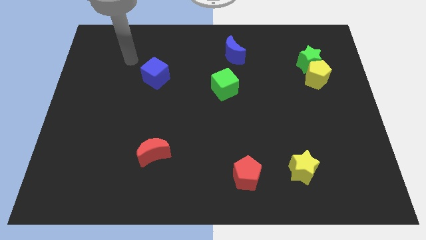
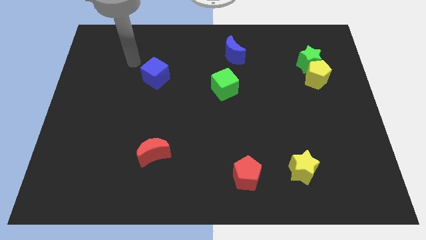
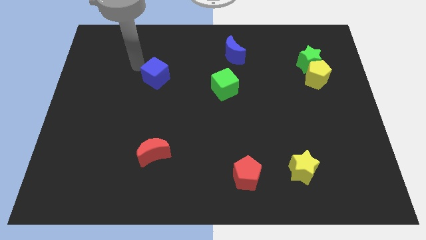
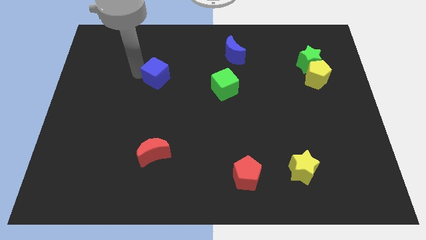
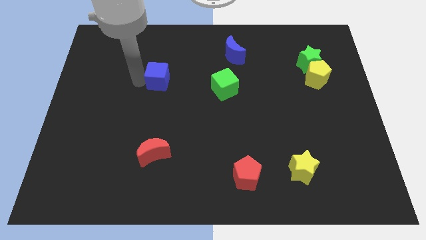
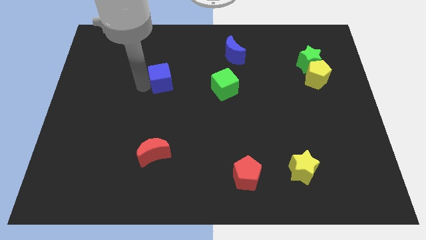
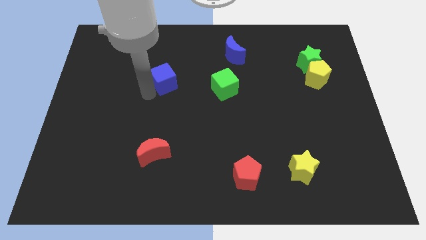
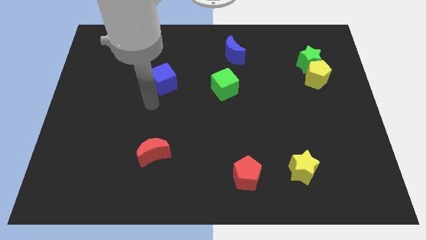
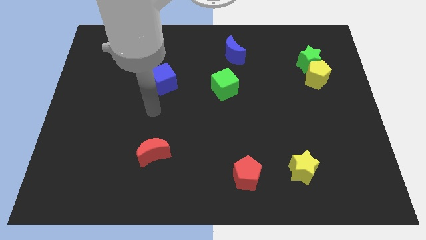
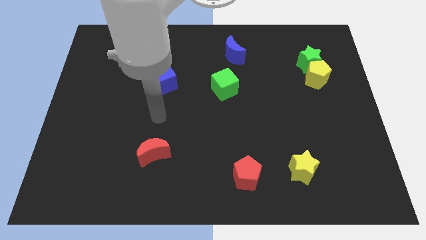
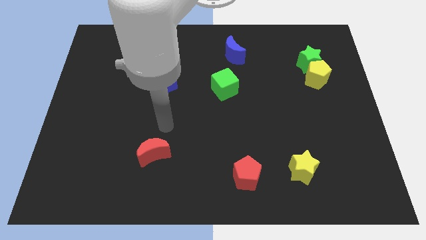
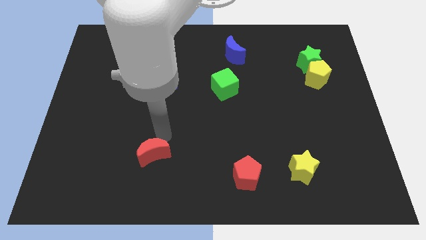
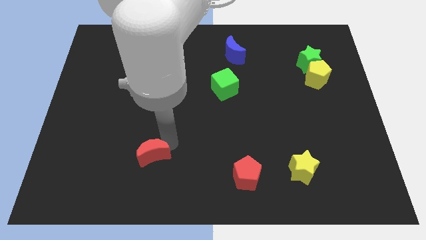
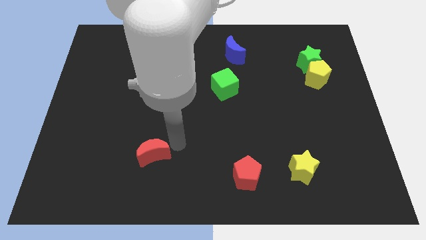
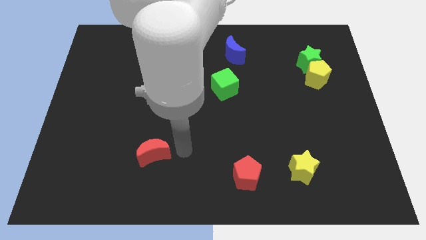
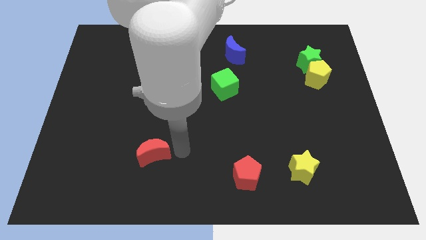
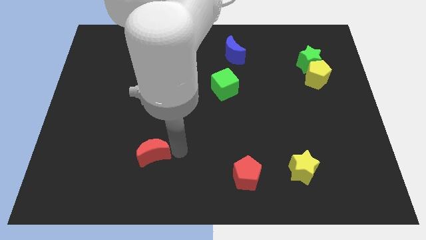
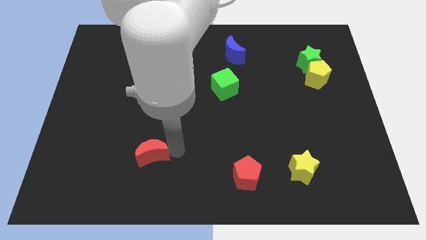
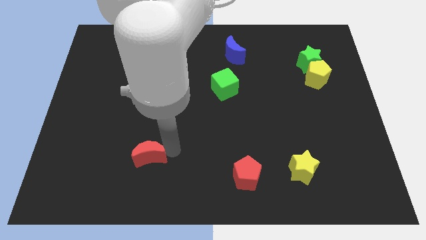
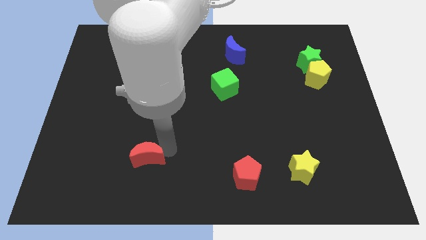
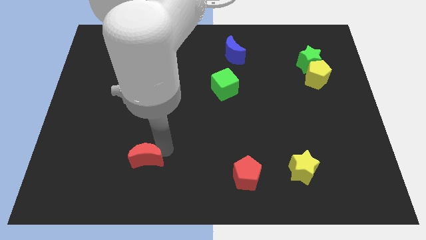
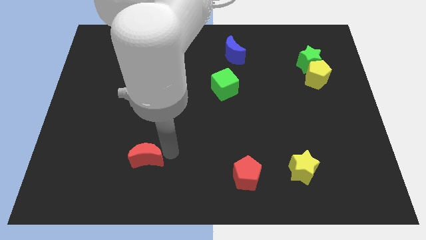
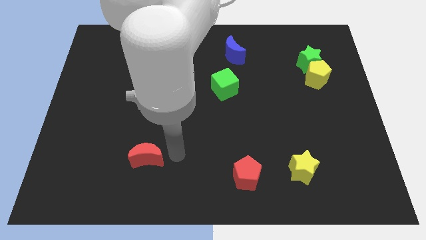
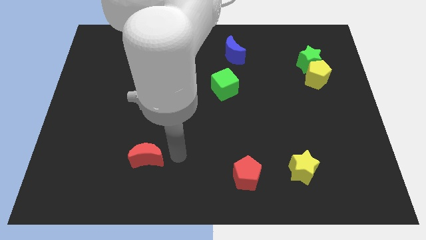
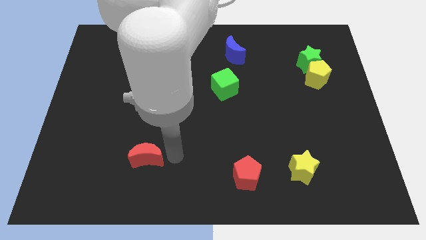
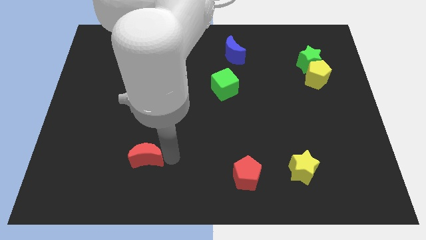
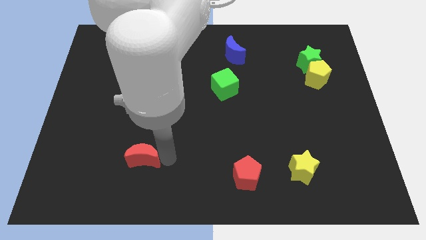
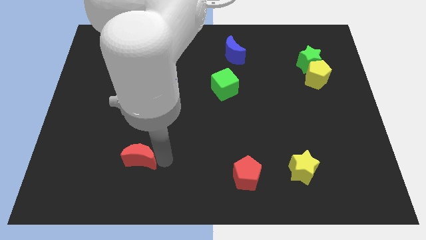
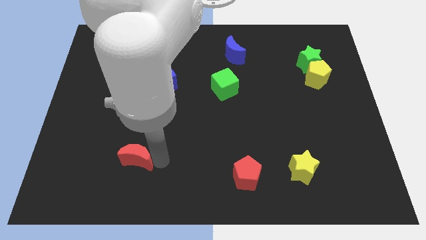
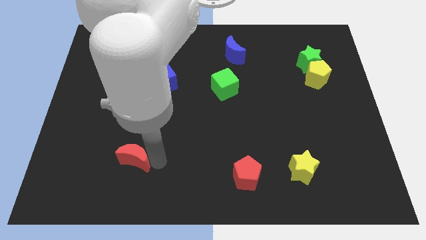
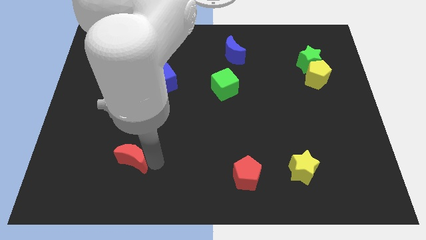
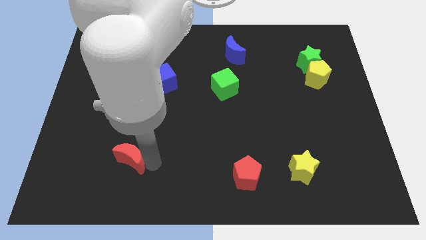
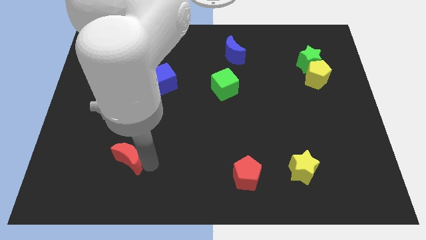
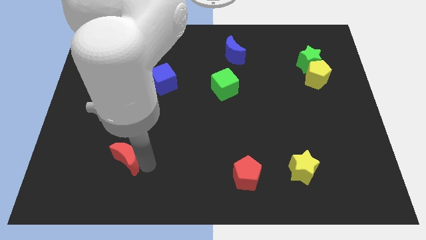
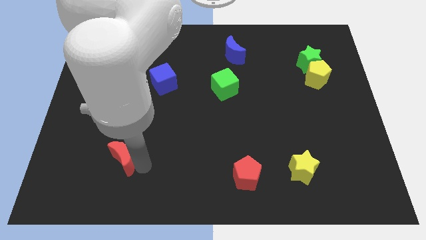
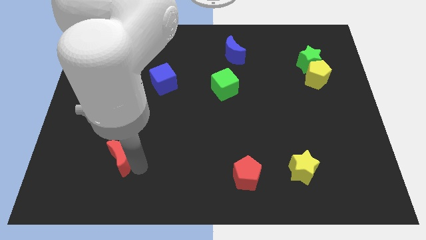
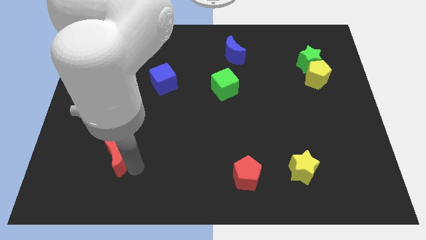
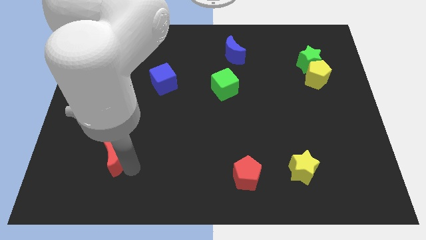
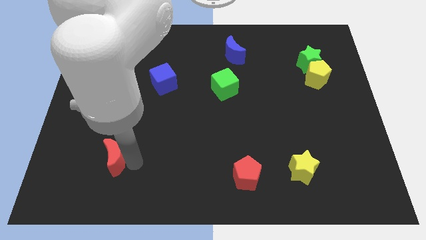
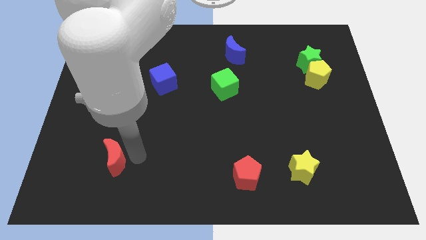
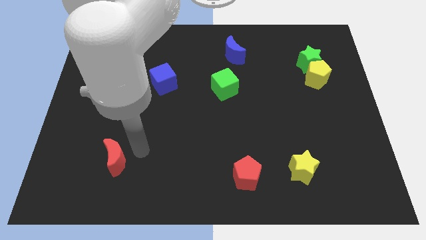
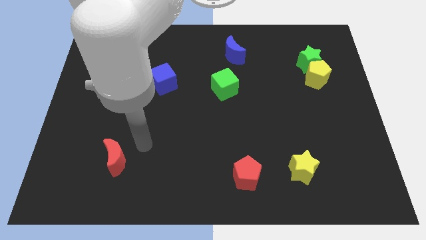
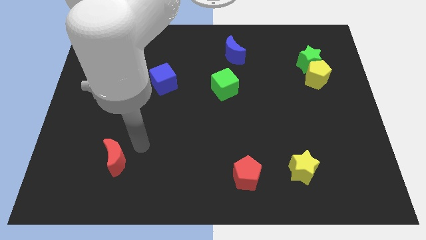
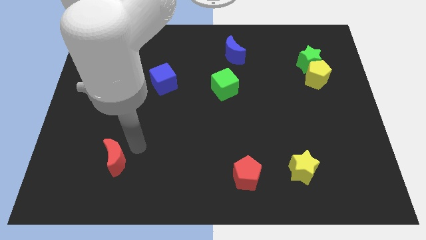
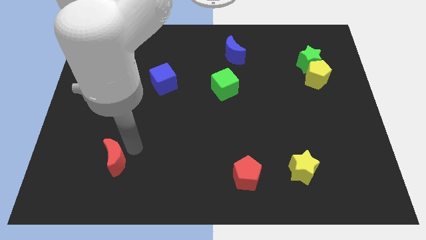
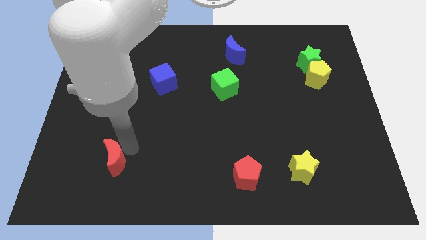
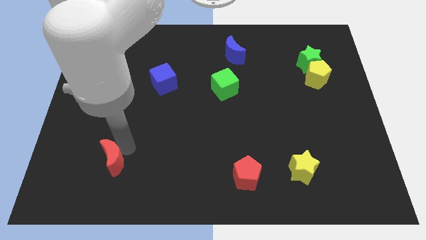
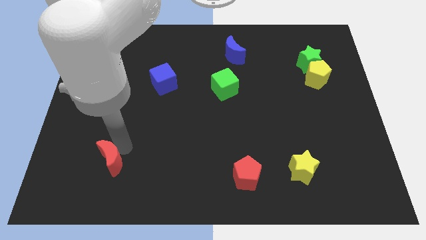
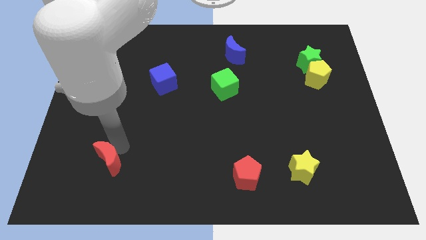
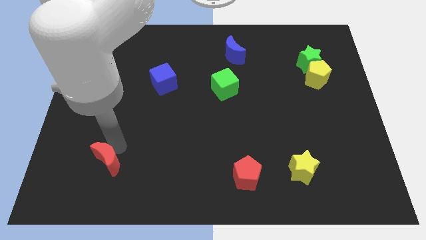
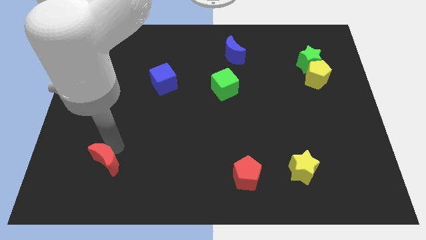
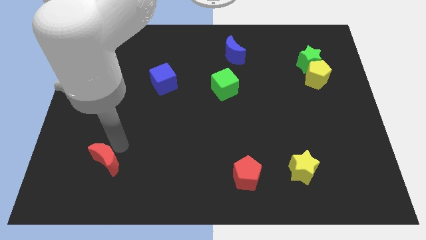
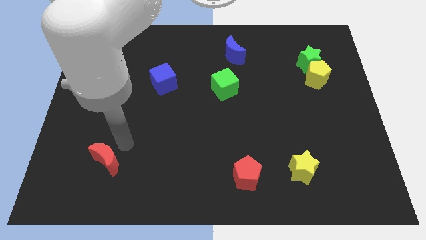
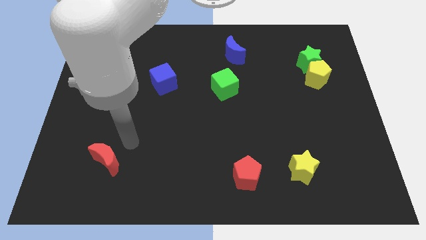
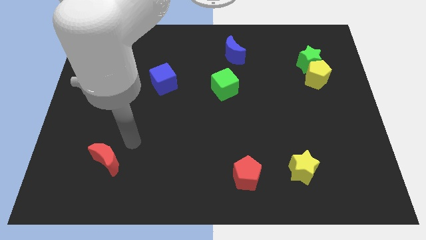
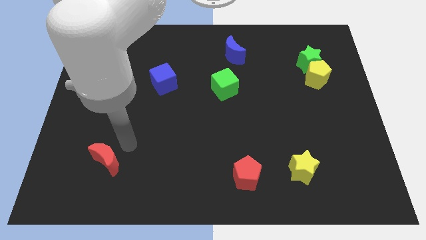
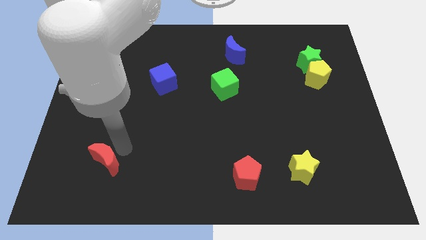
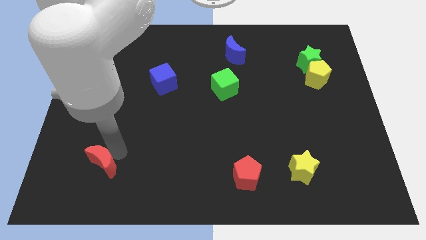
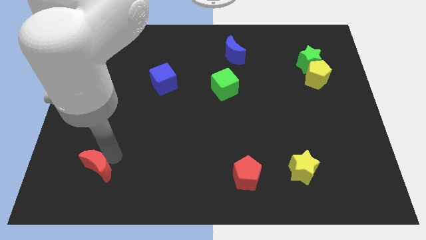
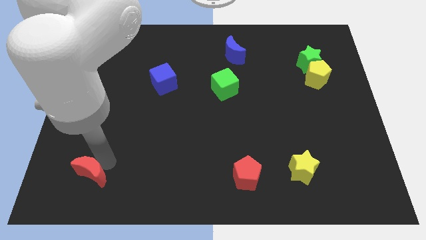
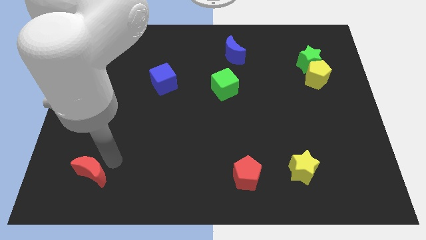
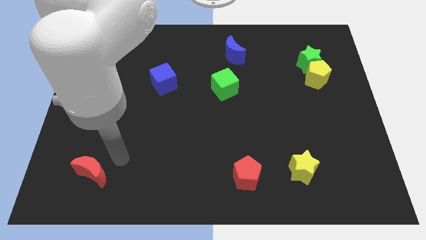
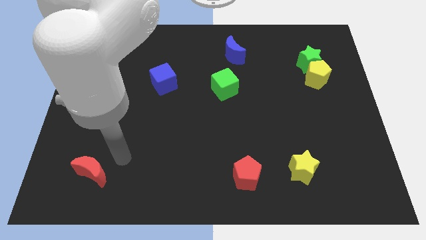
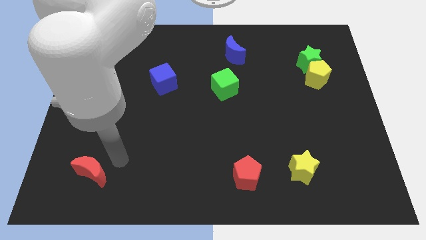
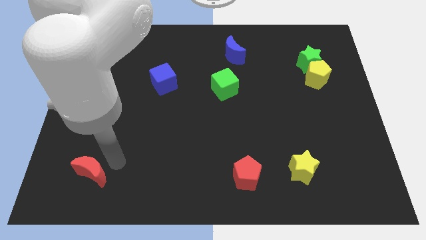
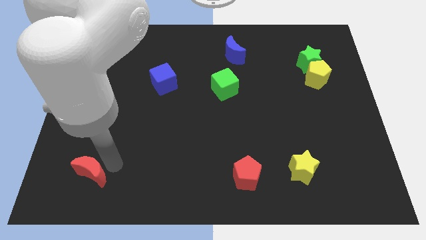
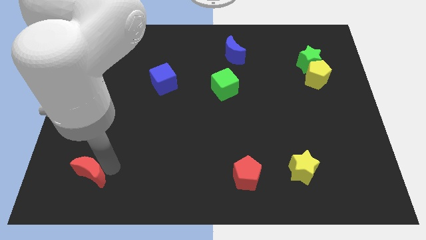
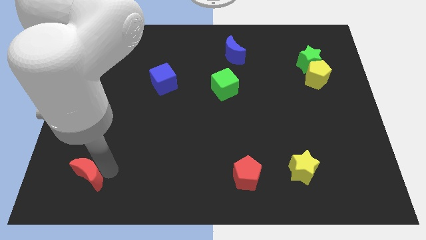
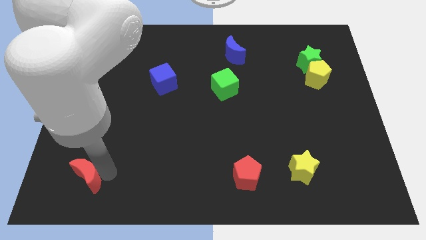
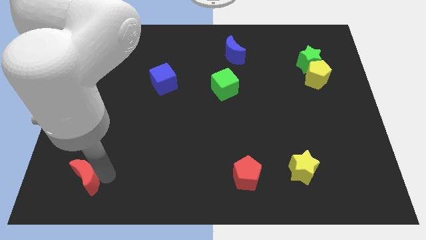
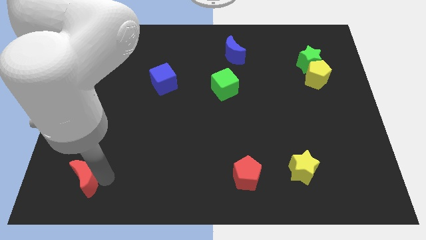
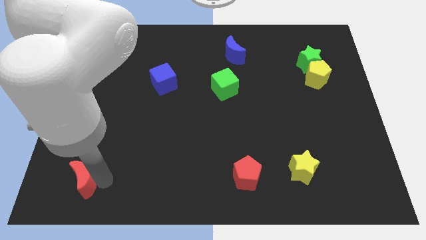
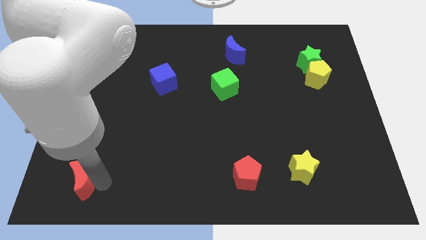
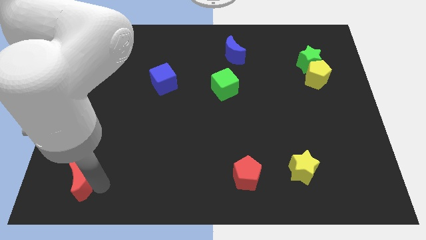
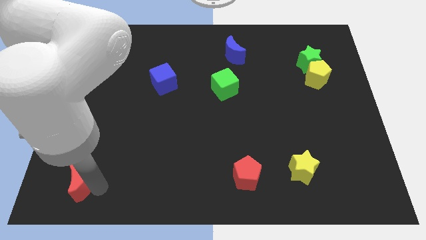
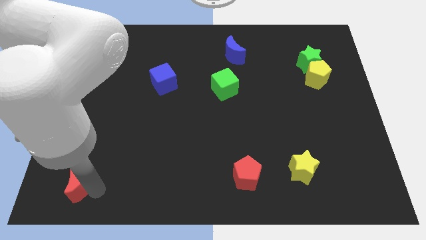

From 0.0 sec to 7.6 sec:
push the red moon to the bottom left of the board
